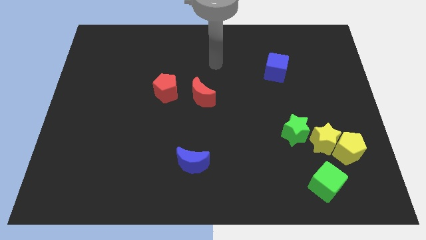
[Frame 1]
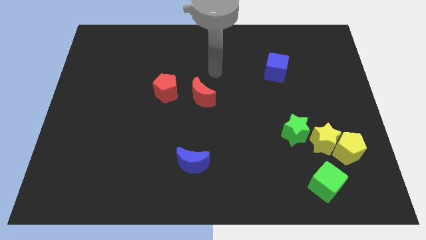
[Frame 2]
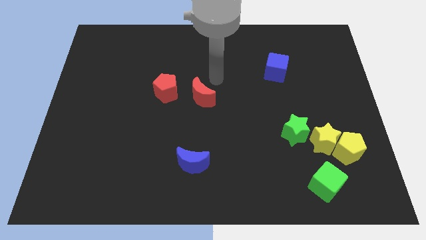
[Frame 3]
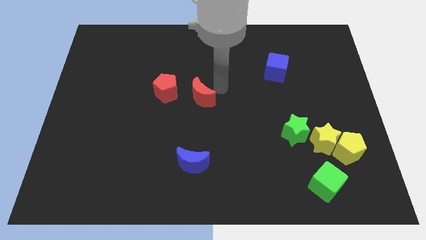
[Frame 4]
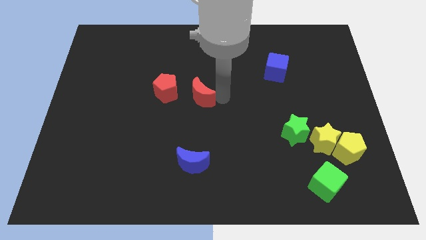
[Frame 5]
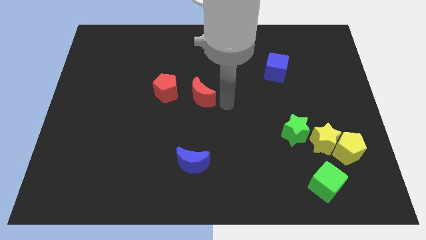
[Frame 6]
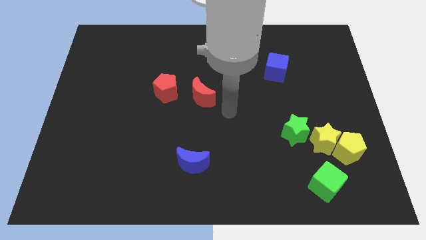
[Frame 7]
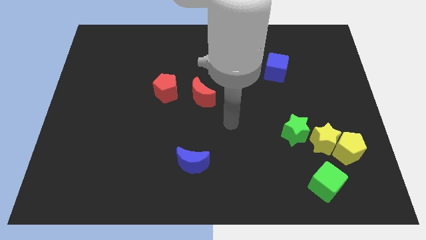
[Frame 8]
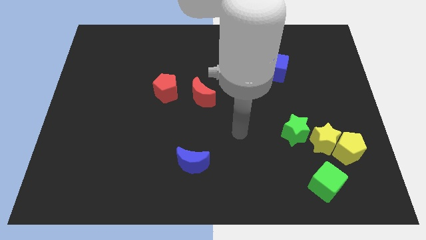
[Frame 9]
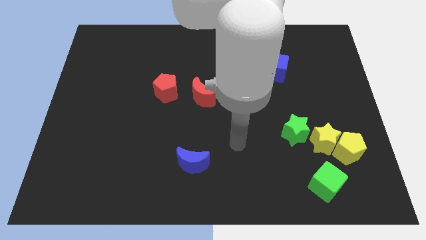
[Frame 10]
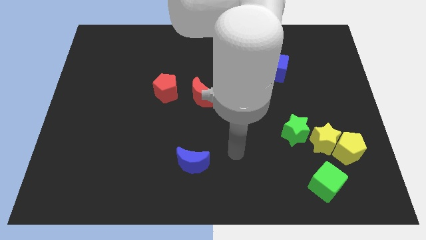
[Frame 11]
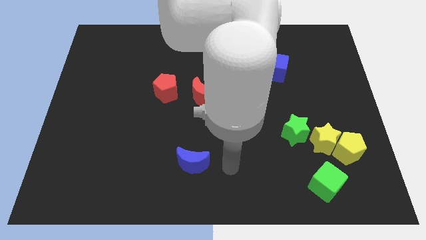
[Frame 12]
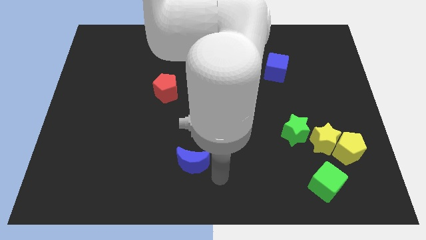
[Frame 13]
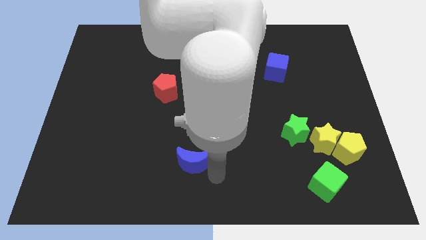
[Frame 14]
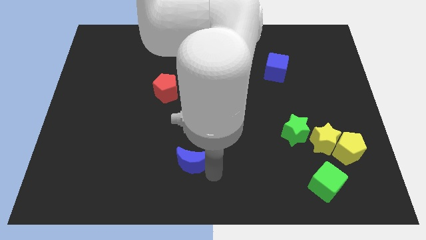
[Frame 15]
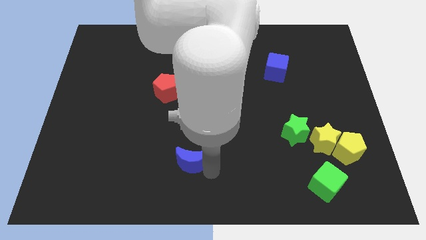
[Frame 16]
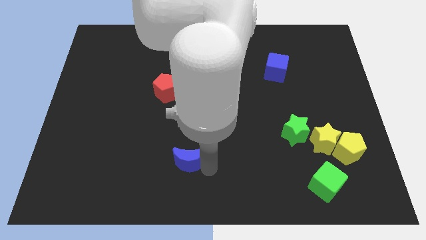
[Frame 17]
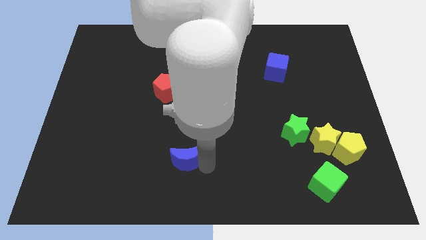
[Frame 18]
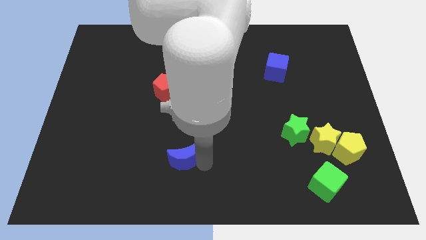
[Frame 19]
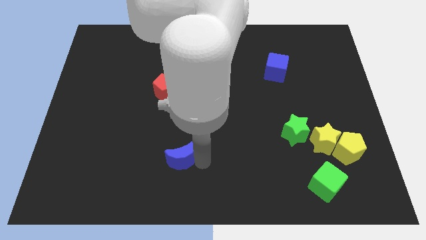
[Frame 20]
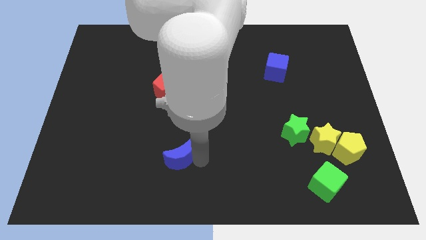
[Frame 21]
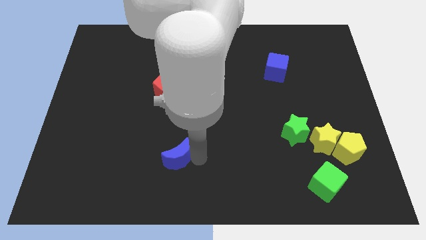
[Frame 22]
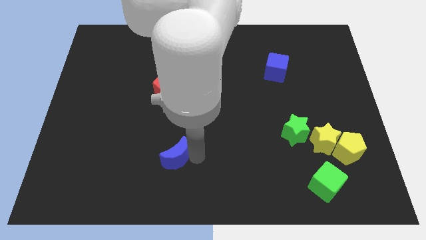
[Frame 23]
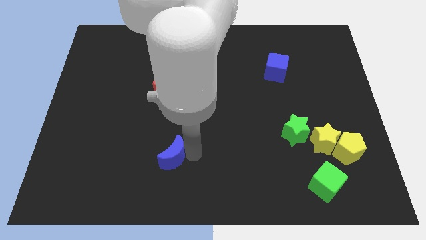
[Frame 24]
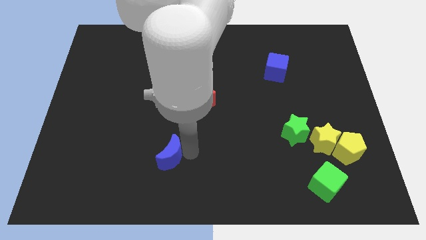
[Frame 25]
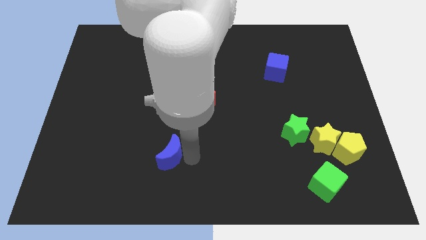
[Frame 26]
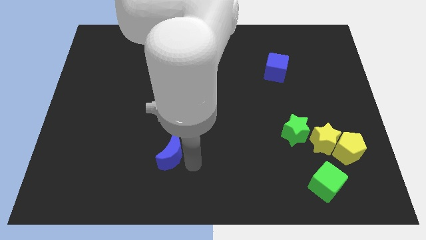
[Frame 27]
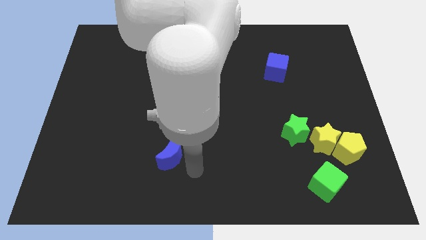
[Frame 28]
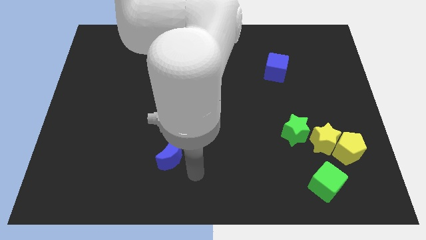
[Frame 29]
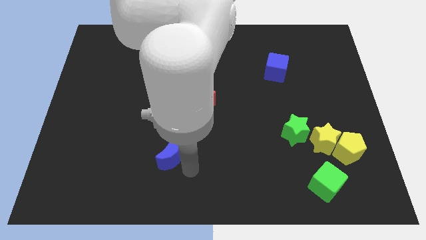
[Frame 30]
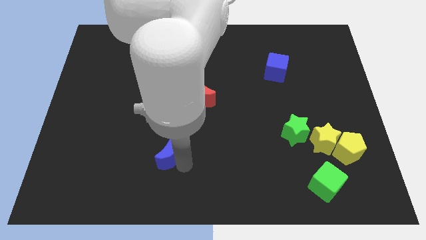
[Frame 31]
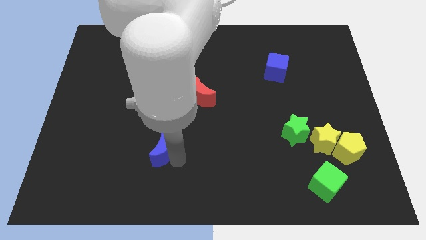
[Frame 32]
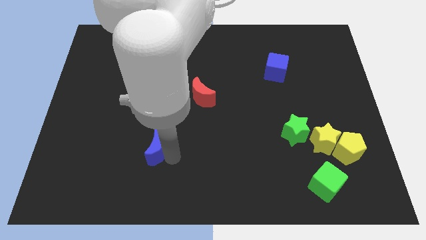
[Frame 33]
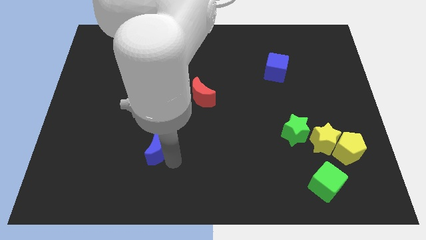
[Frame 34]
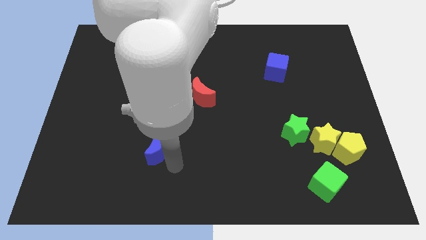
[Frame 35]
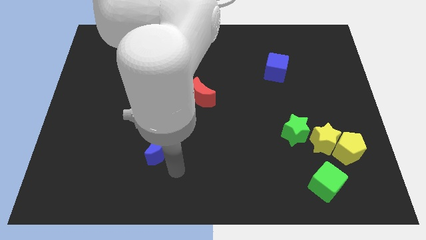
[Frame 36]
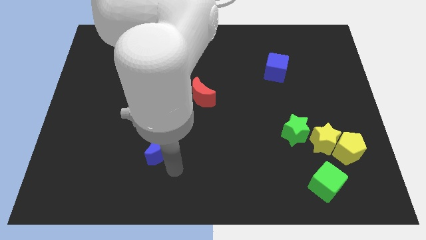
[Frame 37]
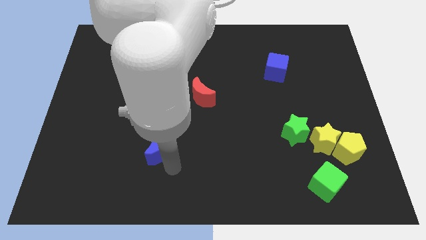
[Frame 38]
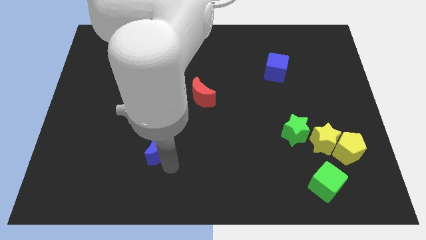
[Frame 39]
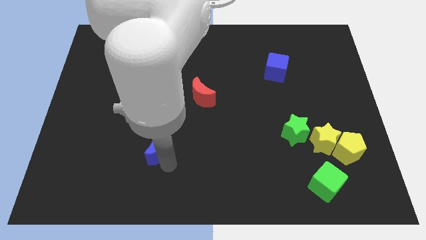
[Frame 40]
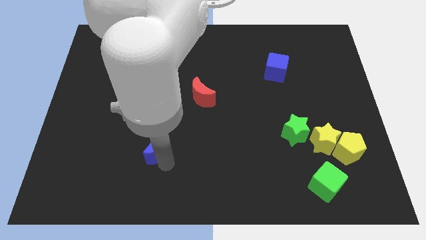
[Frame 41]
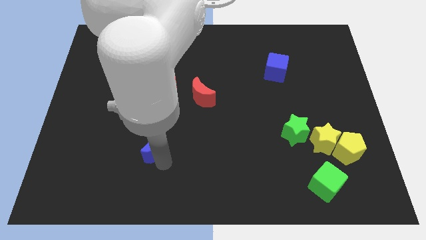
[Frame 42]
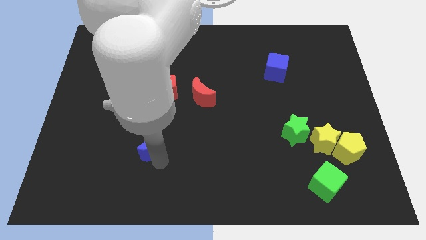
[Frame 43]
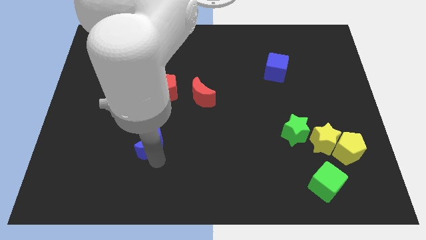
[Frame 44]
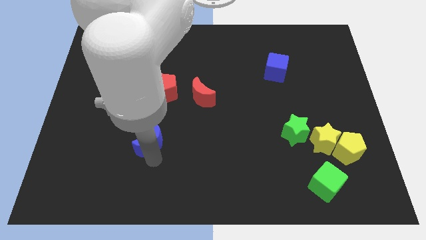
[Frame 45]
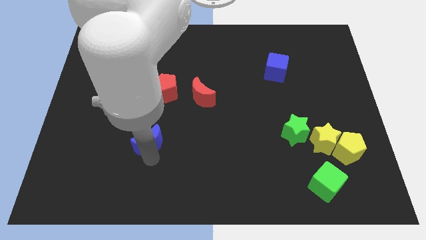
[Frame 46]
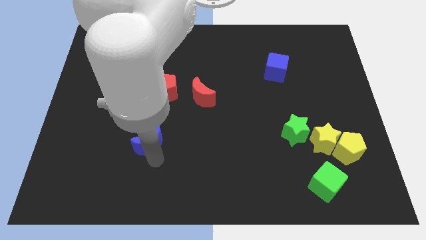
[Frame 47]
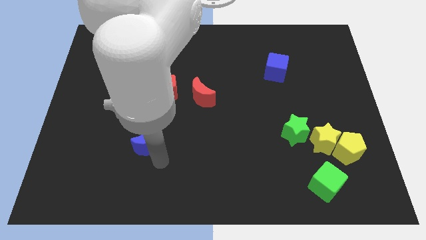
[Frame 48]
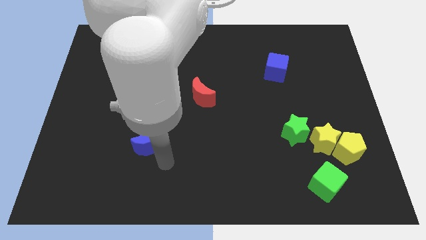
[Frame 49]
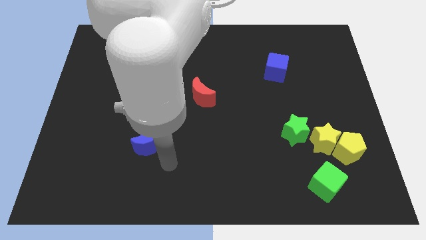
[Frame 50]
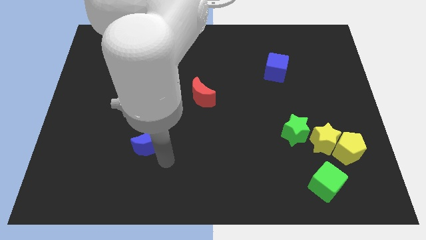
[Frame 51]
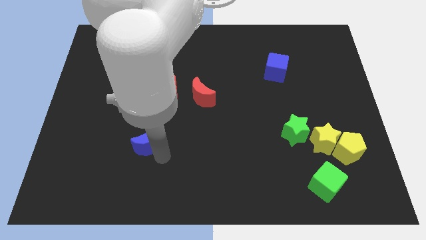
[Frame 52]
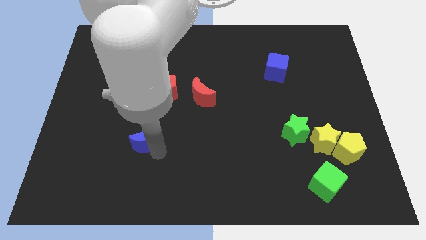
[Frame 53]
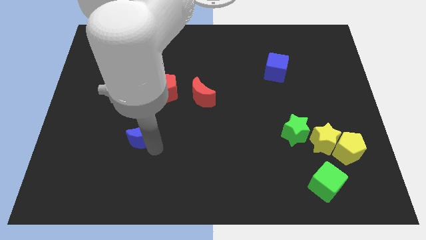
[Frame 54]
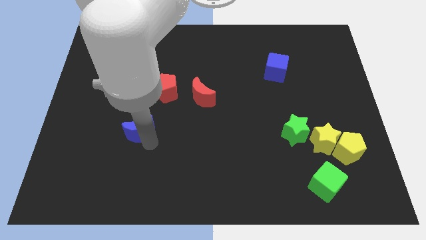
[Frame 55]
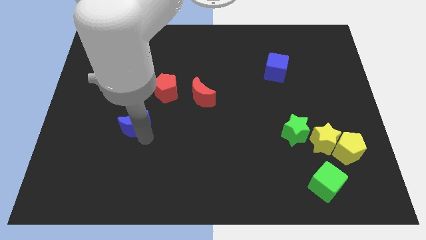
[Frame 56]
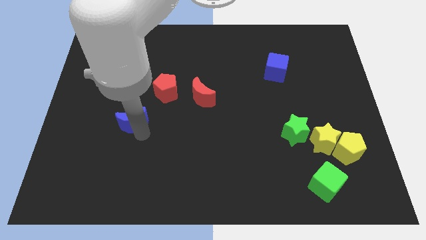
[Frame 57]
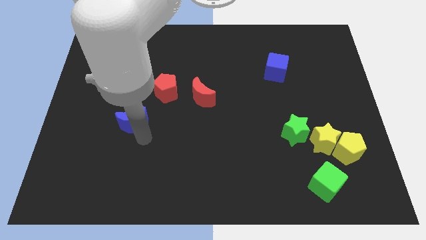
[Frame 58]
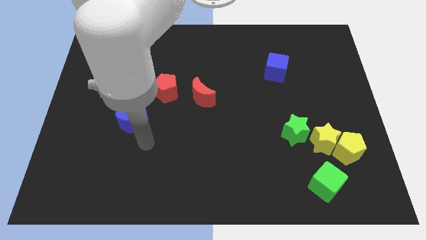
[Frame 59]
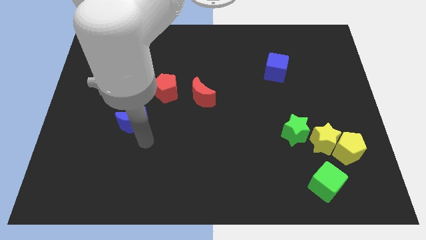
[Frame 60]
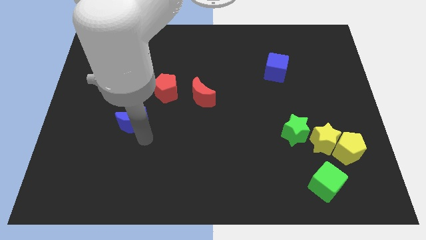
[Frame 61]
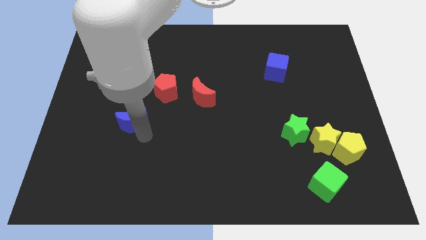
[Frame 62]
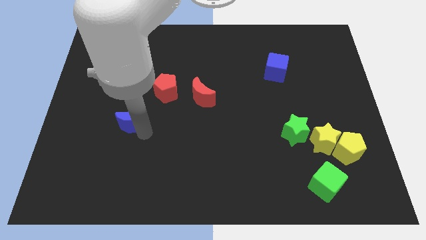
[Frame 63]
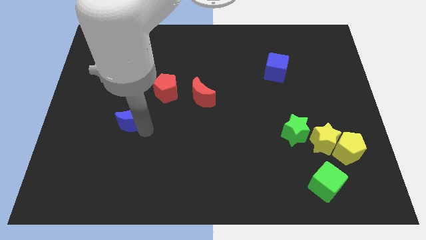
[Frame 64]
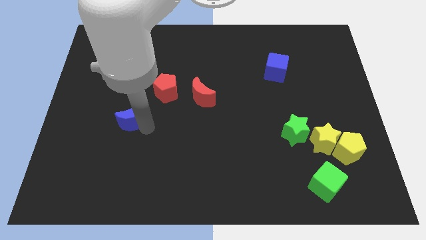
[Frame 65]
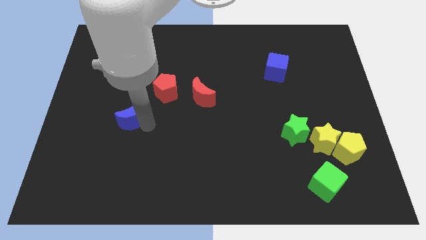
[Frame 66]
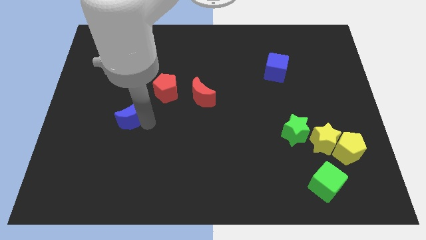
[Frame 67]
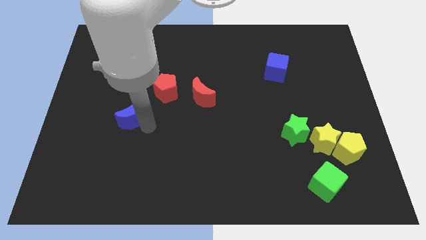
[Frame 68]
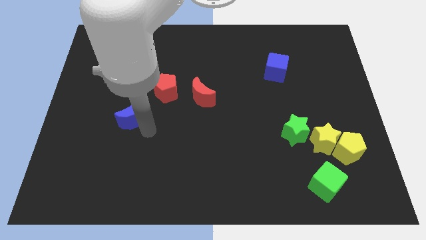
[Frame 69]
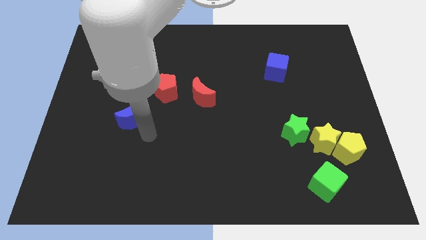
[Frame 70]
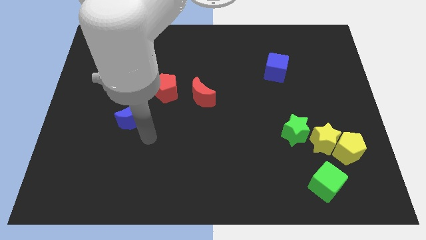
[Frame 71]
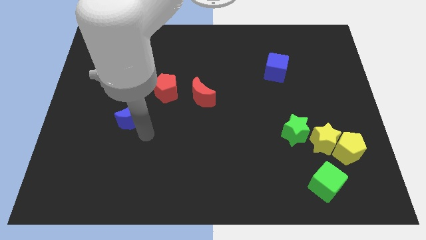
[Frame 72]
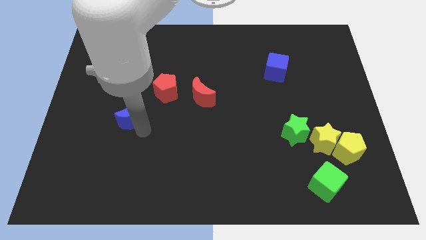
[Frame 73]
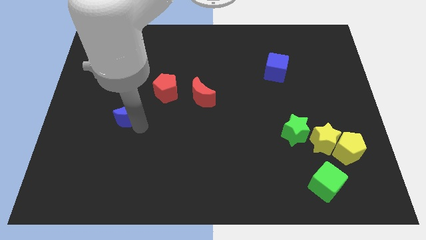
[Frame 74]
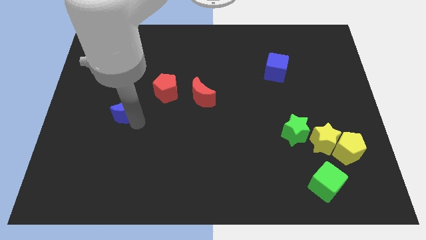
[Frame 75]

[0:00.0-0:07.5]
move the blue moon diagonally up and left

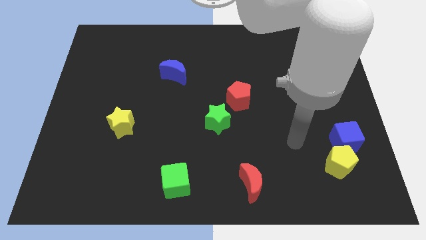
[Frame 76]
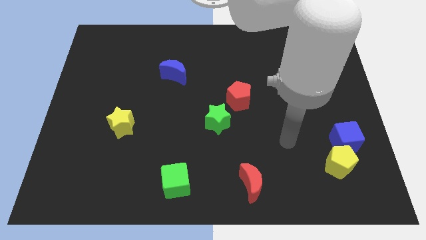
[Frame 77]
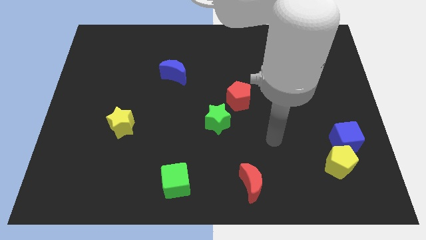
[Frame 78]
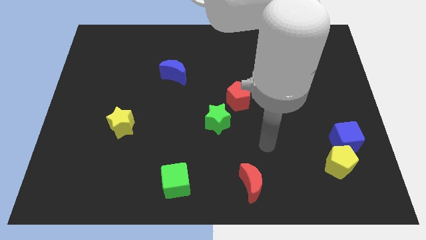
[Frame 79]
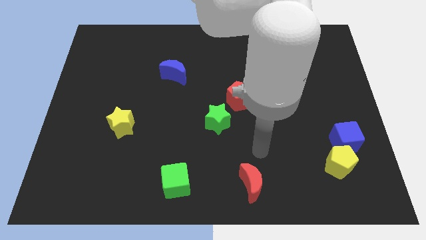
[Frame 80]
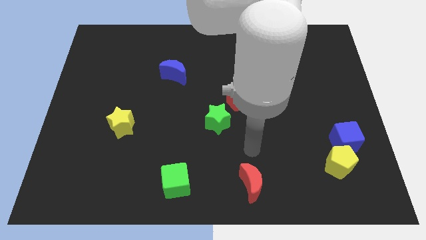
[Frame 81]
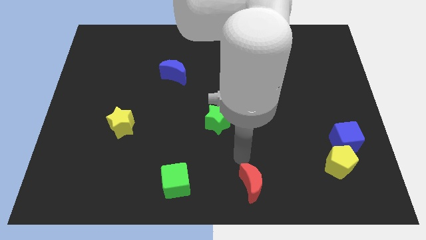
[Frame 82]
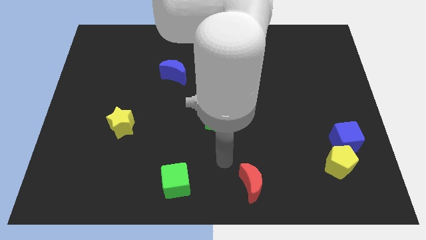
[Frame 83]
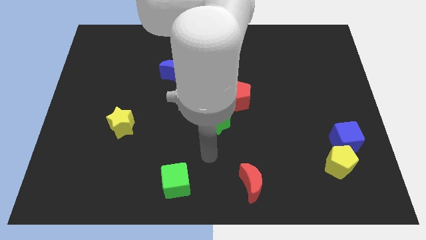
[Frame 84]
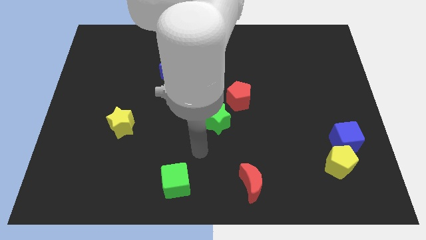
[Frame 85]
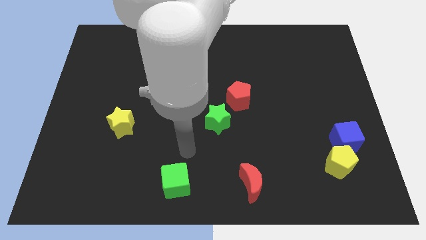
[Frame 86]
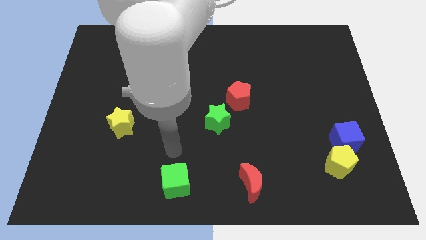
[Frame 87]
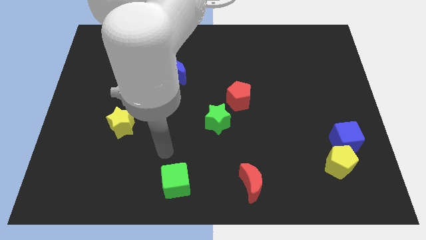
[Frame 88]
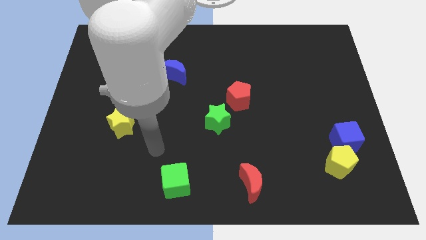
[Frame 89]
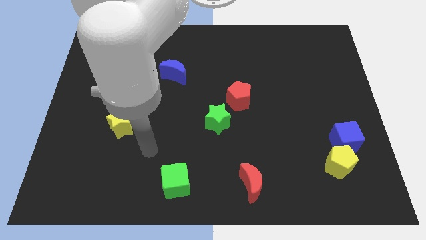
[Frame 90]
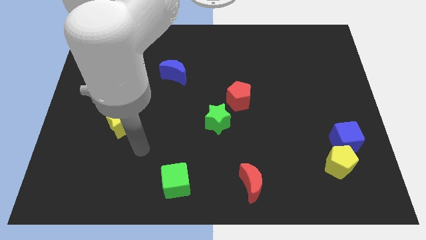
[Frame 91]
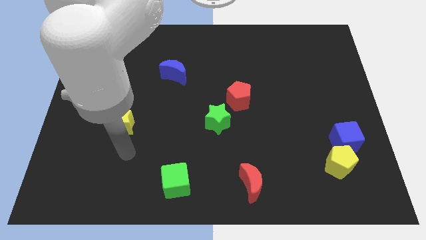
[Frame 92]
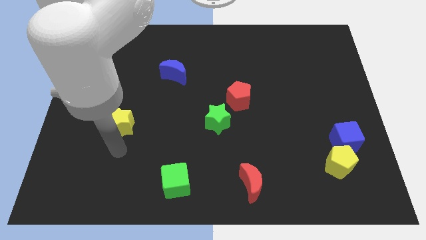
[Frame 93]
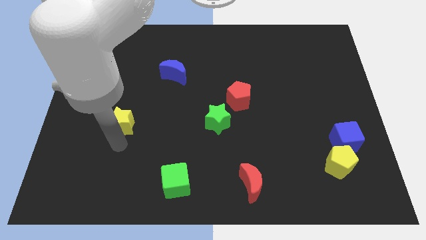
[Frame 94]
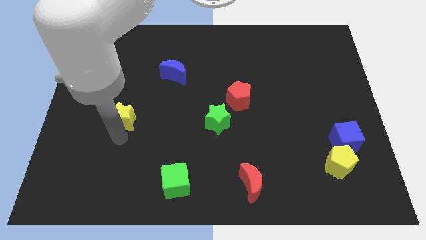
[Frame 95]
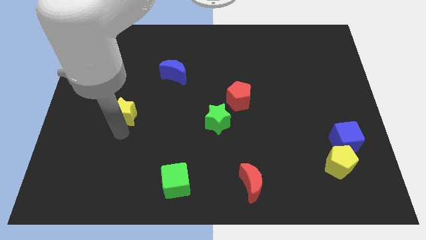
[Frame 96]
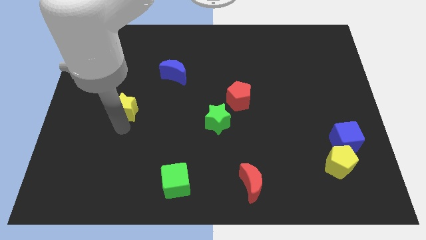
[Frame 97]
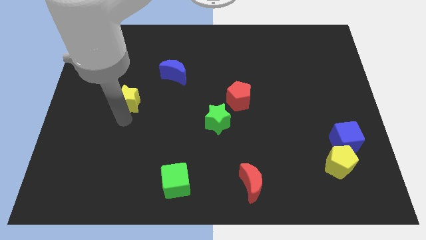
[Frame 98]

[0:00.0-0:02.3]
slide the yellow star a bit up
